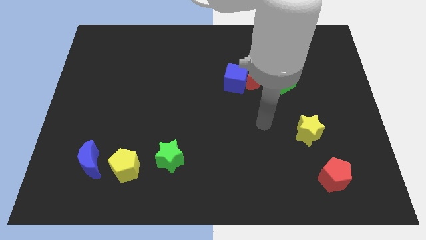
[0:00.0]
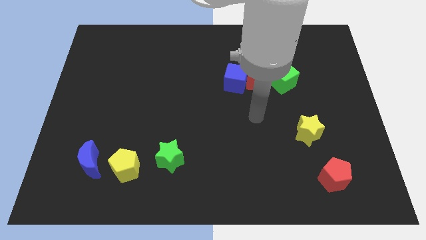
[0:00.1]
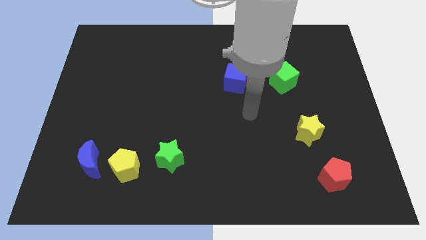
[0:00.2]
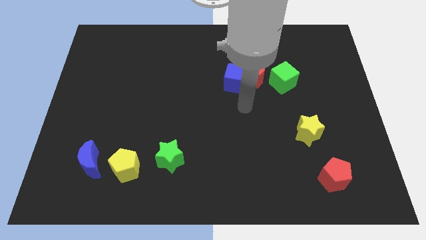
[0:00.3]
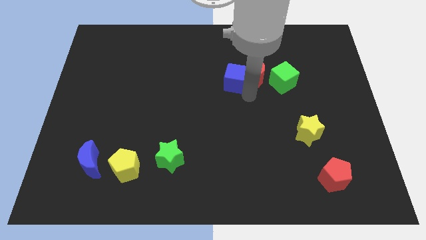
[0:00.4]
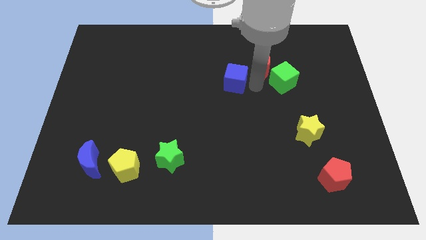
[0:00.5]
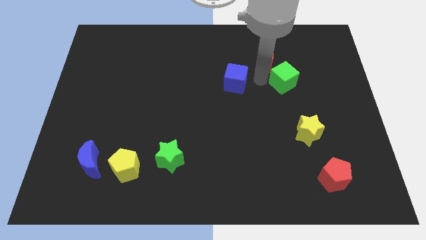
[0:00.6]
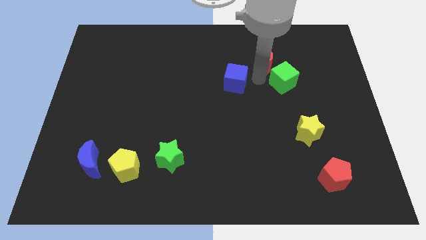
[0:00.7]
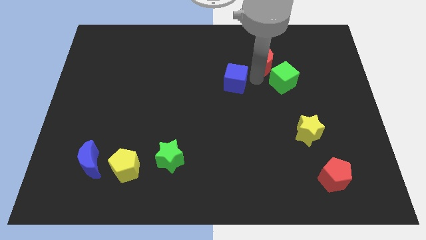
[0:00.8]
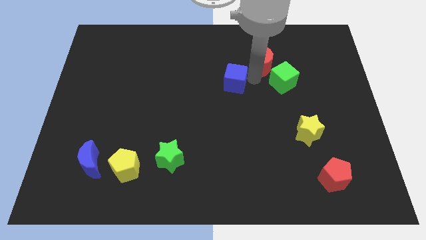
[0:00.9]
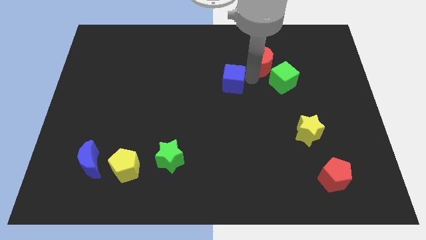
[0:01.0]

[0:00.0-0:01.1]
move the blue cube away from the red moon

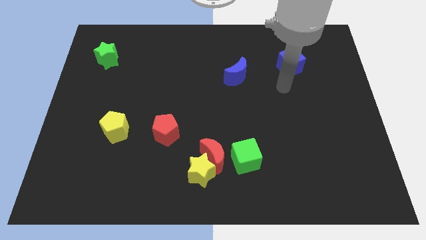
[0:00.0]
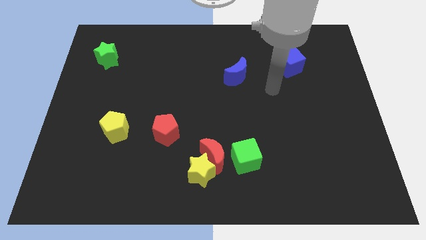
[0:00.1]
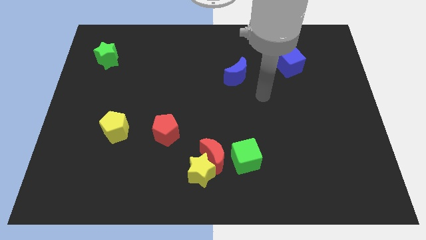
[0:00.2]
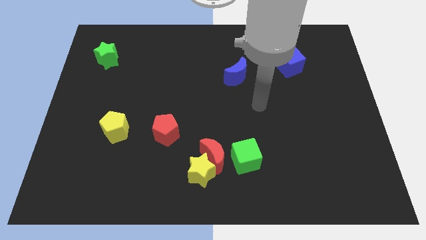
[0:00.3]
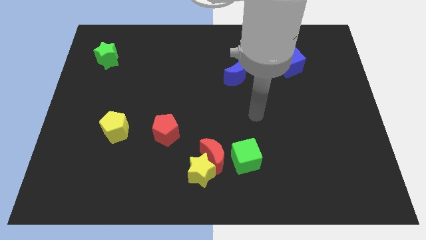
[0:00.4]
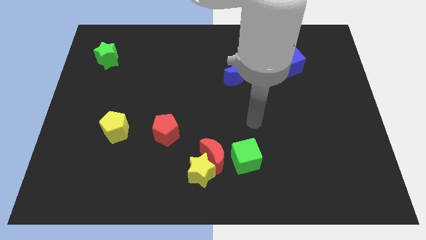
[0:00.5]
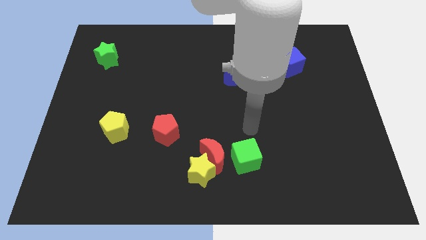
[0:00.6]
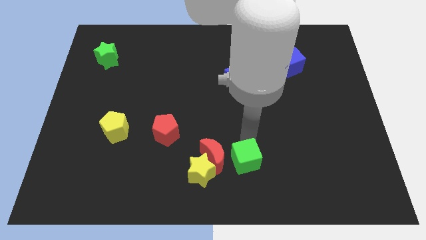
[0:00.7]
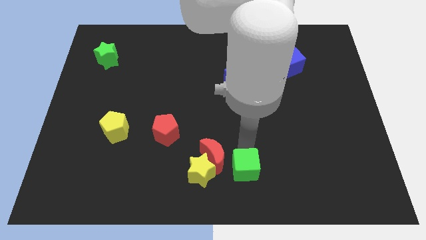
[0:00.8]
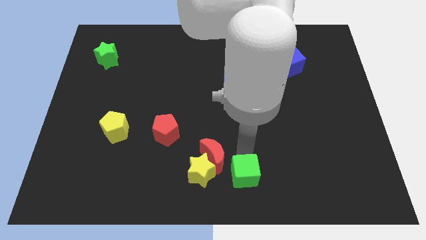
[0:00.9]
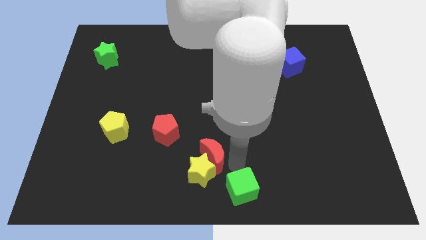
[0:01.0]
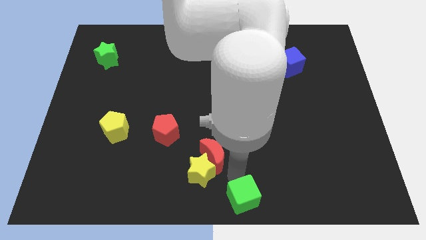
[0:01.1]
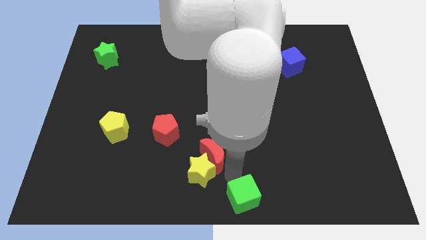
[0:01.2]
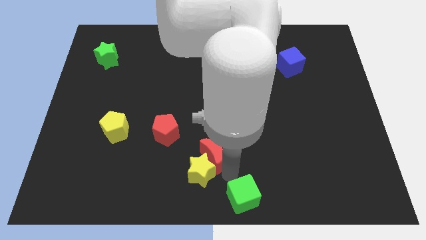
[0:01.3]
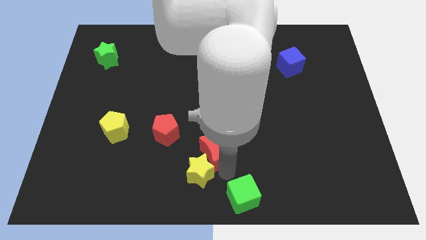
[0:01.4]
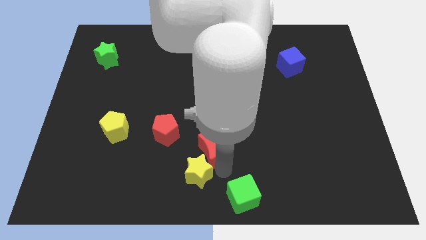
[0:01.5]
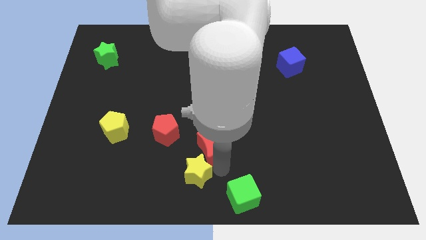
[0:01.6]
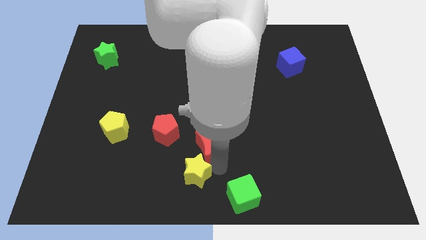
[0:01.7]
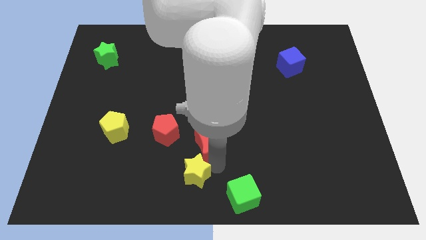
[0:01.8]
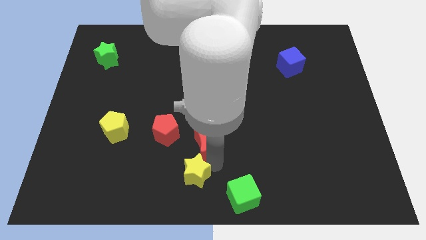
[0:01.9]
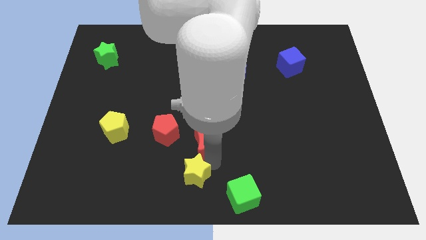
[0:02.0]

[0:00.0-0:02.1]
separate the red moon from the yellow star and green cube

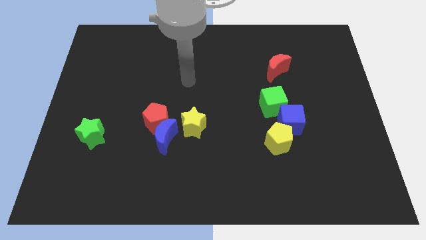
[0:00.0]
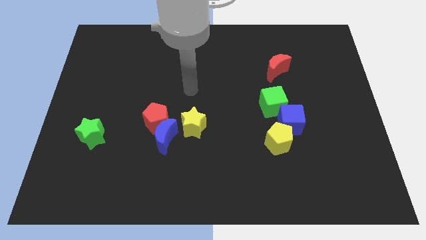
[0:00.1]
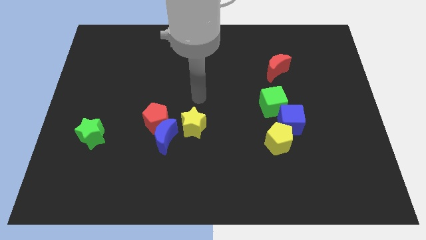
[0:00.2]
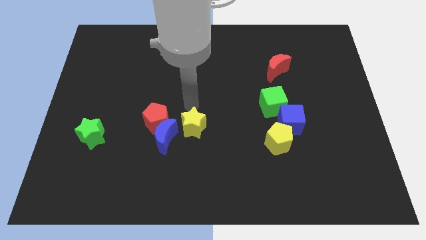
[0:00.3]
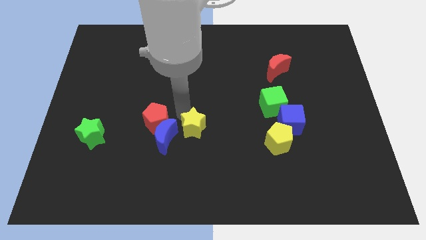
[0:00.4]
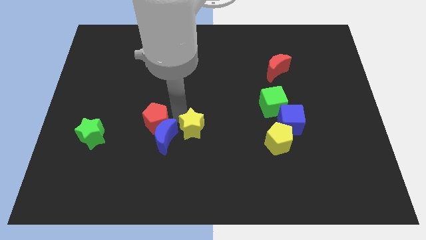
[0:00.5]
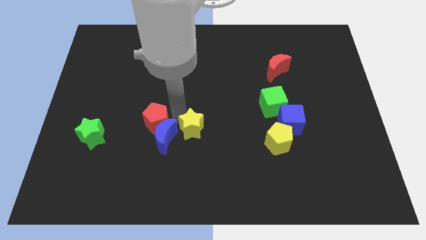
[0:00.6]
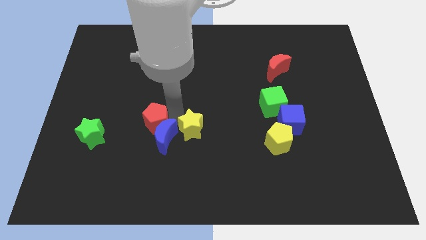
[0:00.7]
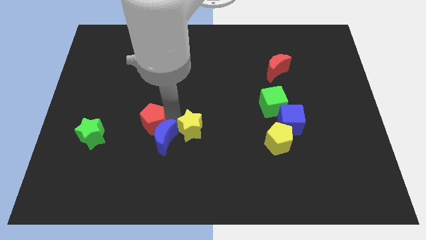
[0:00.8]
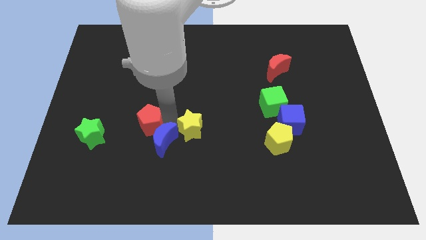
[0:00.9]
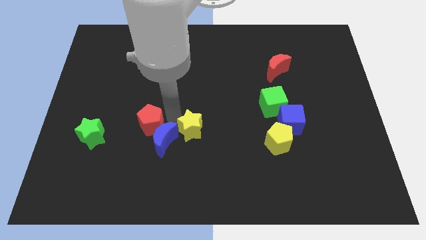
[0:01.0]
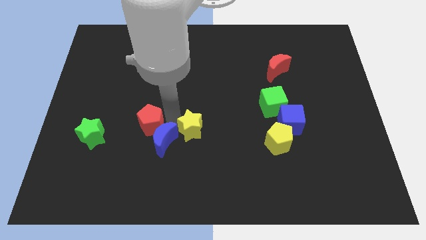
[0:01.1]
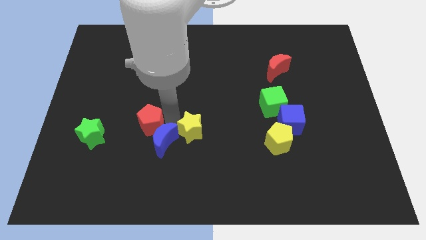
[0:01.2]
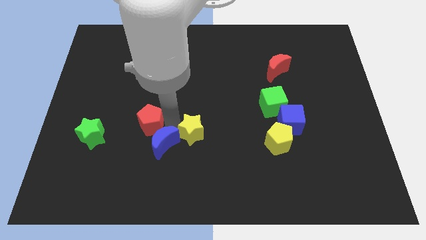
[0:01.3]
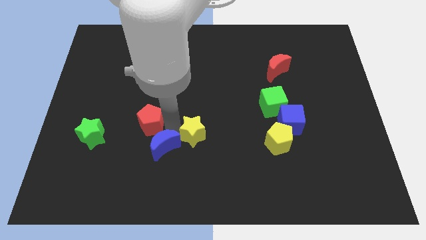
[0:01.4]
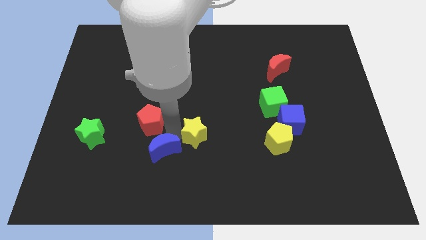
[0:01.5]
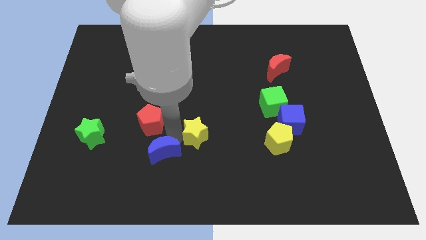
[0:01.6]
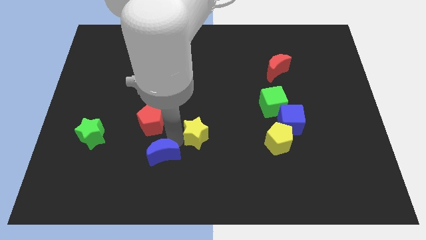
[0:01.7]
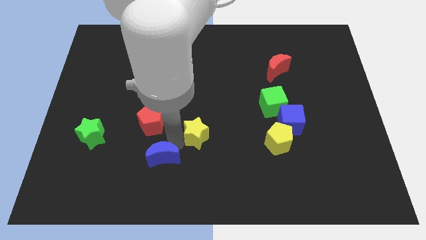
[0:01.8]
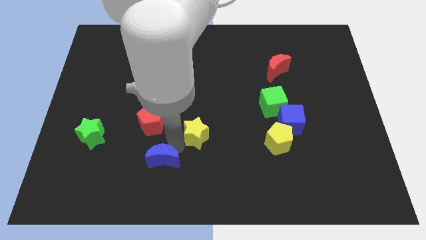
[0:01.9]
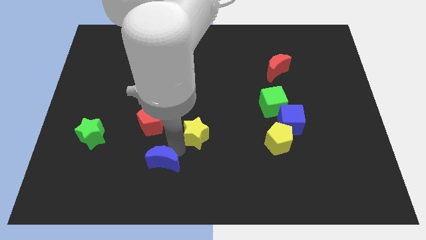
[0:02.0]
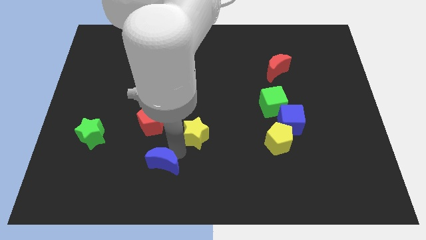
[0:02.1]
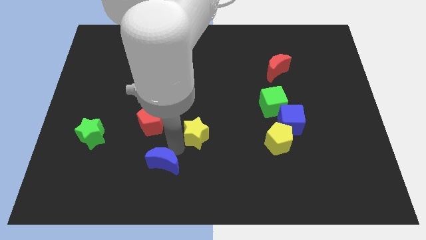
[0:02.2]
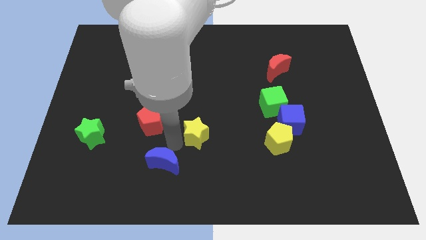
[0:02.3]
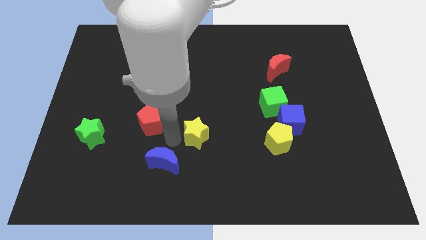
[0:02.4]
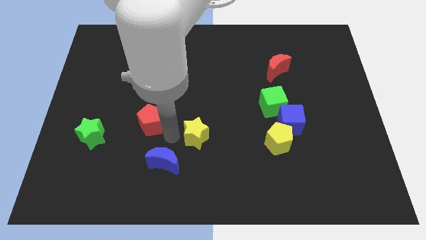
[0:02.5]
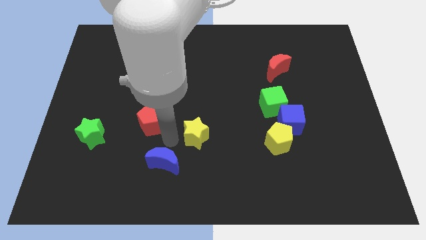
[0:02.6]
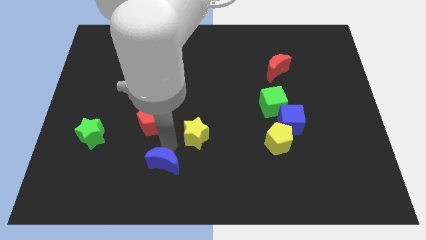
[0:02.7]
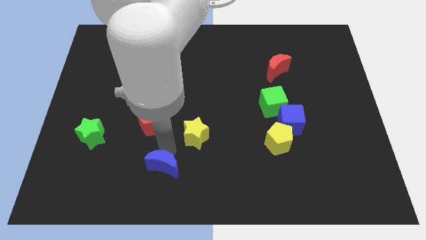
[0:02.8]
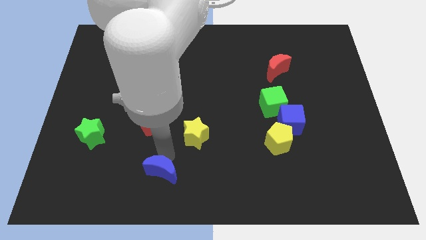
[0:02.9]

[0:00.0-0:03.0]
separate the blue moon from the red pentagon and yellow star

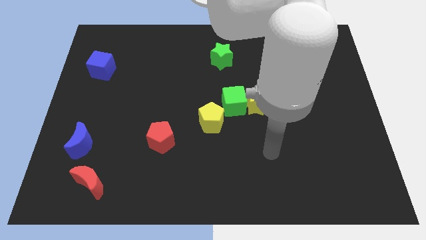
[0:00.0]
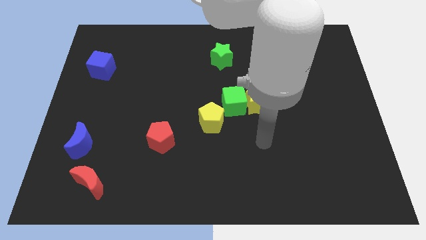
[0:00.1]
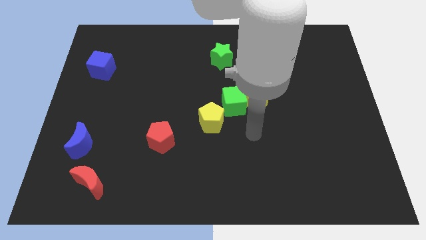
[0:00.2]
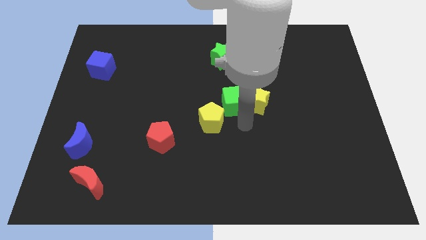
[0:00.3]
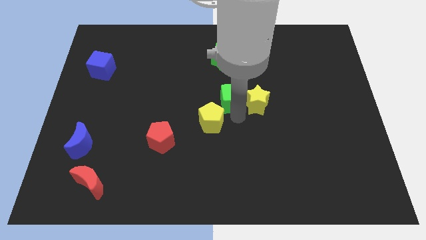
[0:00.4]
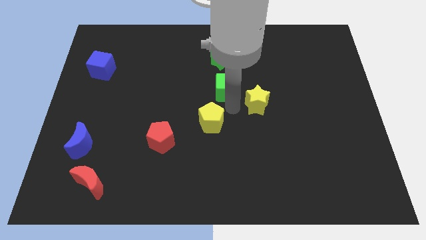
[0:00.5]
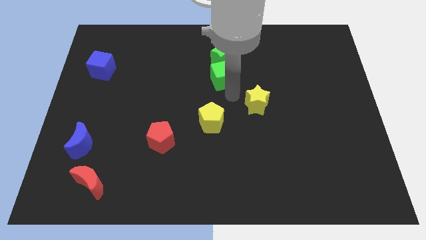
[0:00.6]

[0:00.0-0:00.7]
separate the yellow star from the green cube

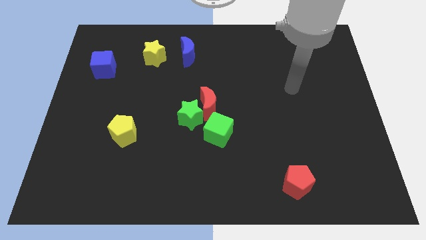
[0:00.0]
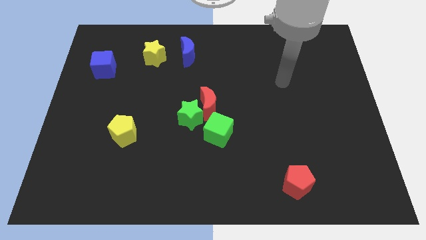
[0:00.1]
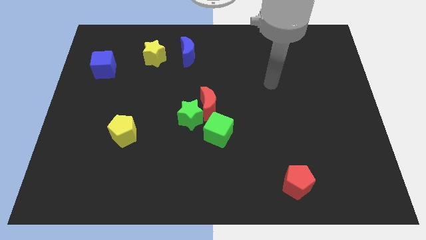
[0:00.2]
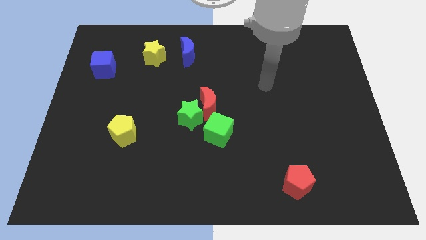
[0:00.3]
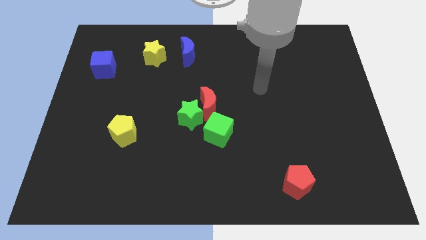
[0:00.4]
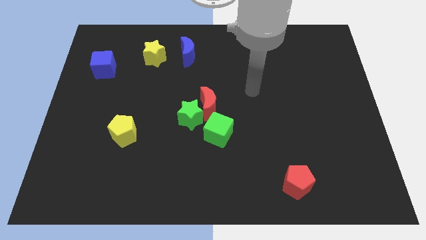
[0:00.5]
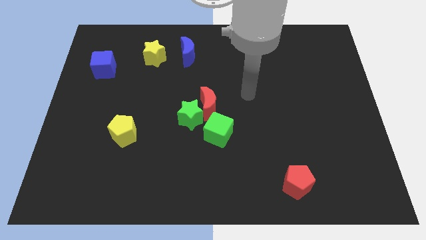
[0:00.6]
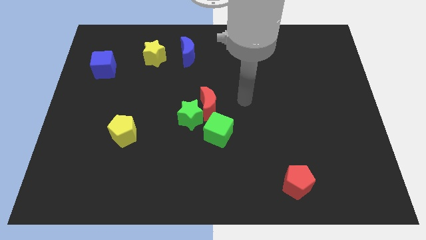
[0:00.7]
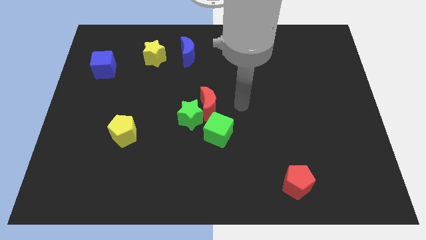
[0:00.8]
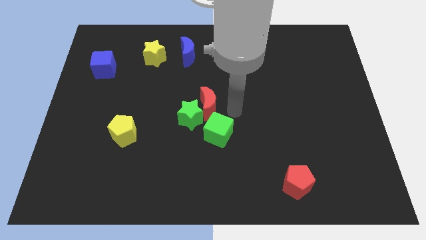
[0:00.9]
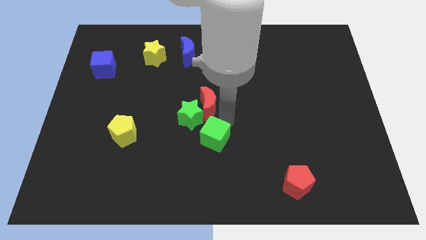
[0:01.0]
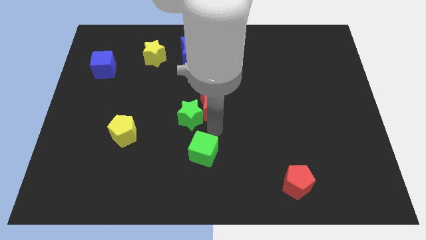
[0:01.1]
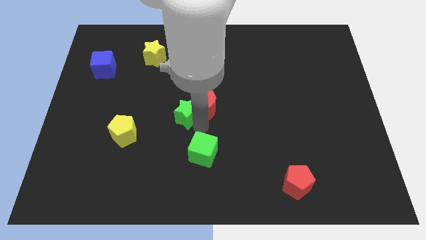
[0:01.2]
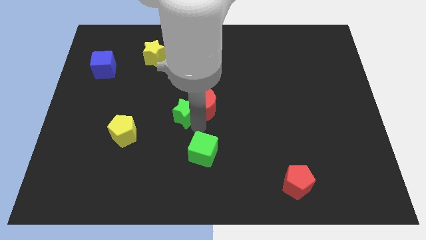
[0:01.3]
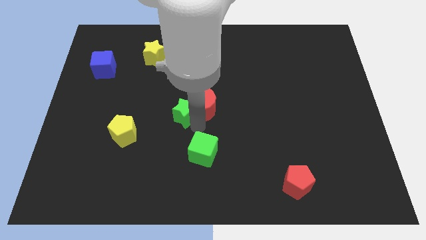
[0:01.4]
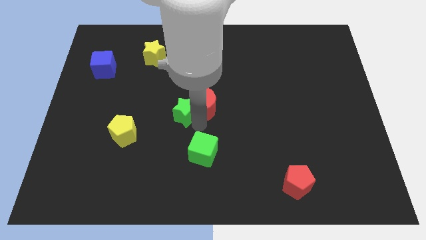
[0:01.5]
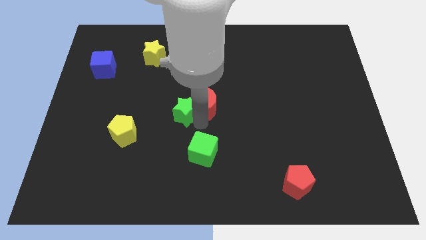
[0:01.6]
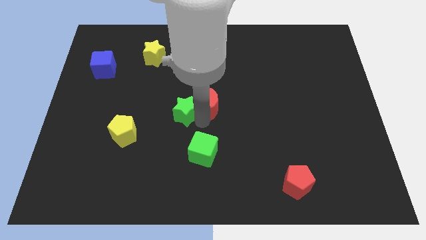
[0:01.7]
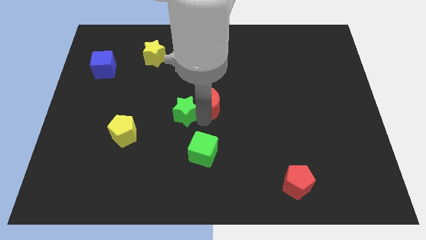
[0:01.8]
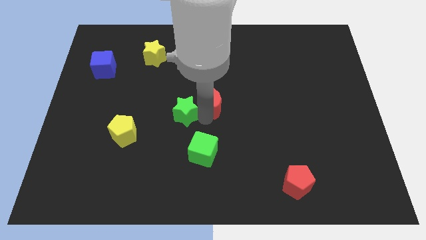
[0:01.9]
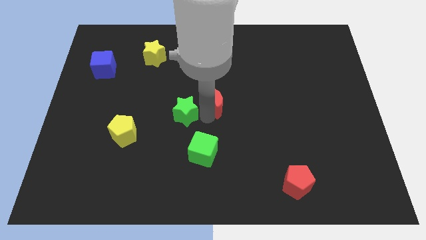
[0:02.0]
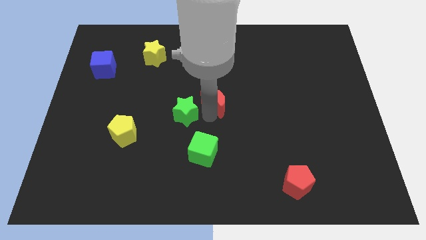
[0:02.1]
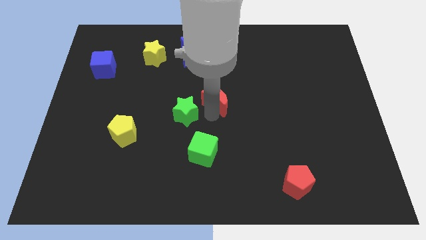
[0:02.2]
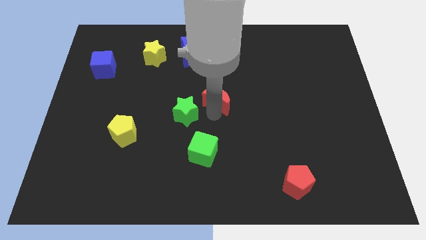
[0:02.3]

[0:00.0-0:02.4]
separate the red moon from the green star and green cube
